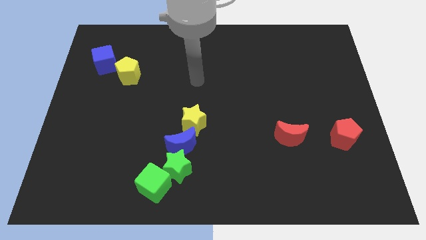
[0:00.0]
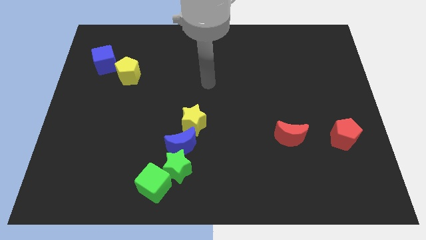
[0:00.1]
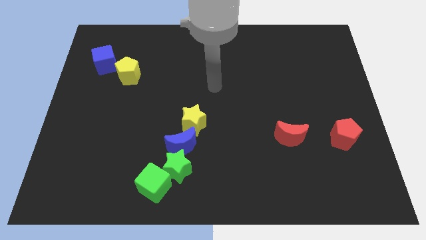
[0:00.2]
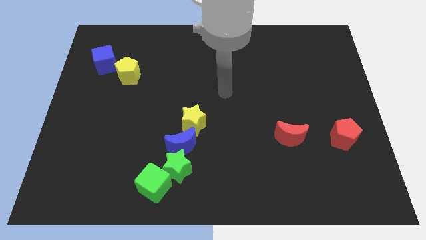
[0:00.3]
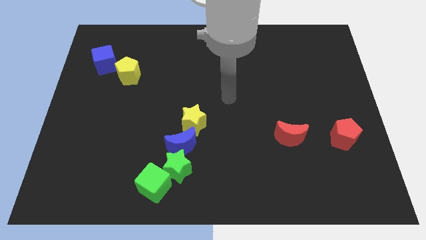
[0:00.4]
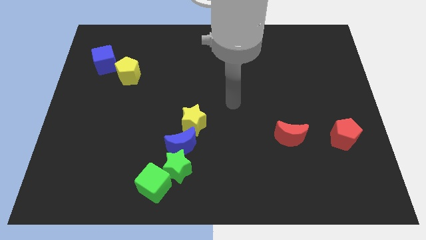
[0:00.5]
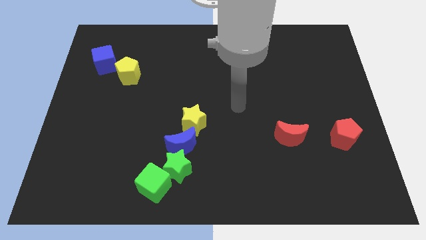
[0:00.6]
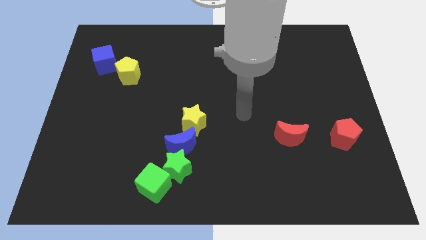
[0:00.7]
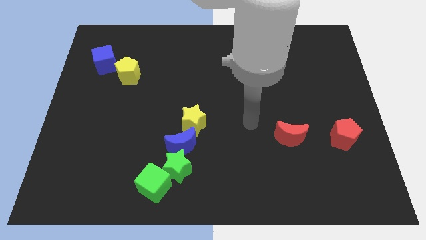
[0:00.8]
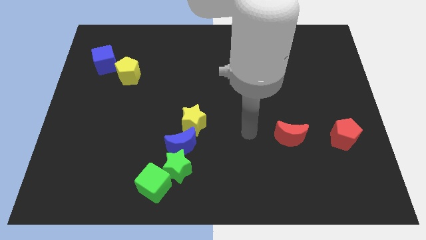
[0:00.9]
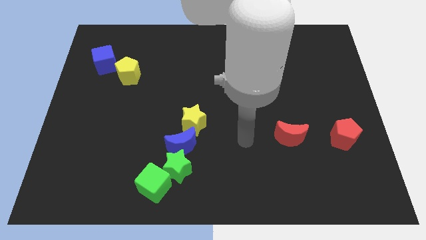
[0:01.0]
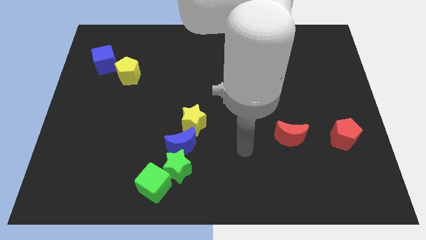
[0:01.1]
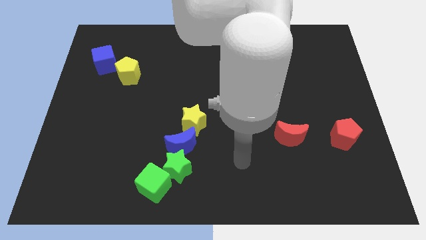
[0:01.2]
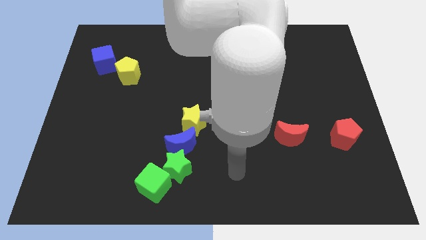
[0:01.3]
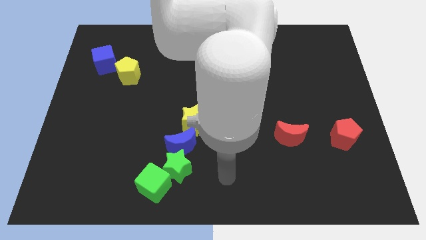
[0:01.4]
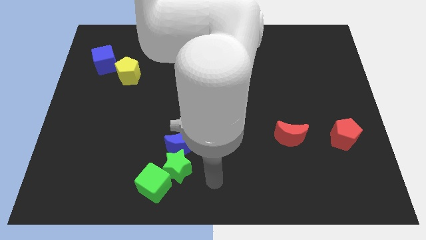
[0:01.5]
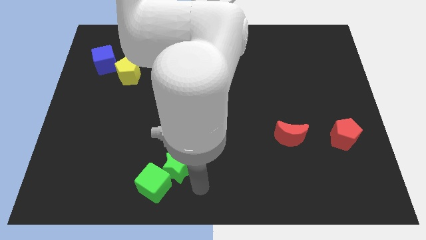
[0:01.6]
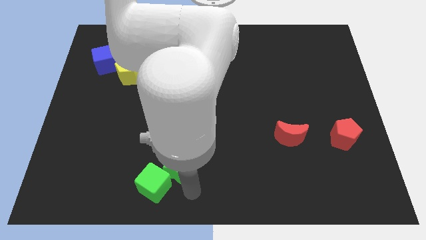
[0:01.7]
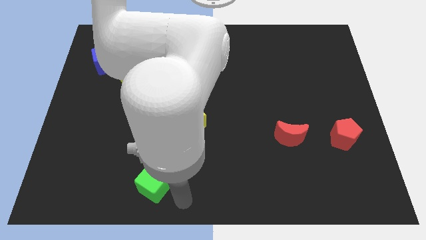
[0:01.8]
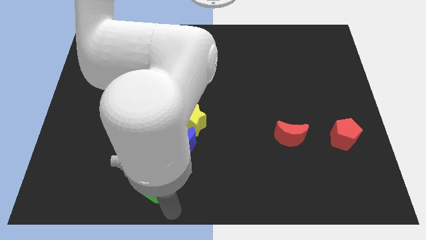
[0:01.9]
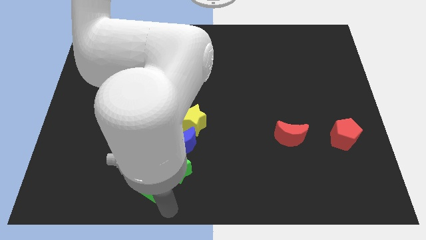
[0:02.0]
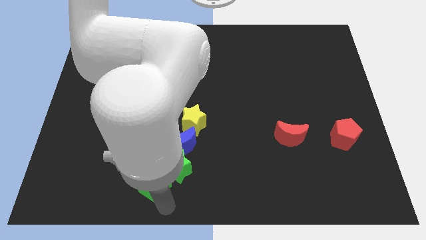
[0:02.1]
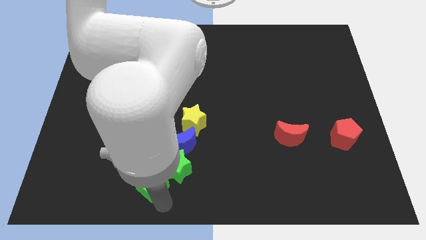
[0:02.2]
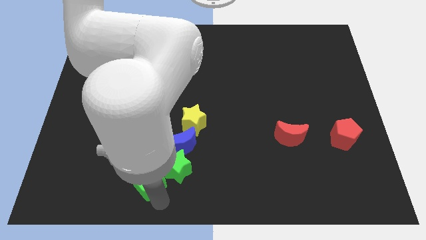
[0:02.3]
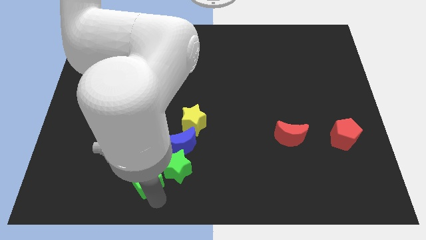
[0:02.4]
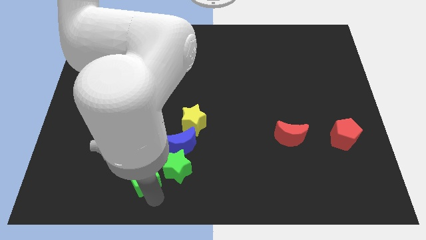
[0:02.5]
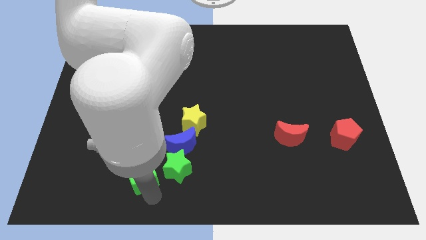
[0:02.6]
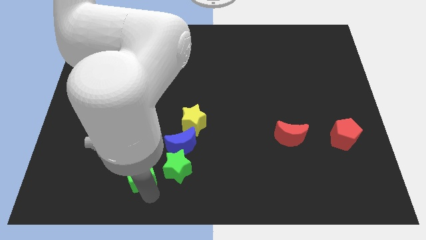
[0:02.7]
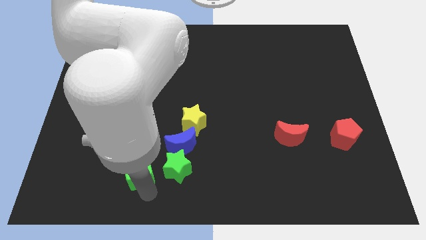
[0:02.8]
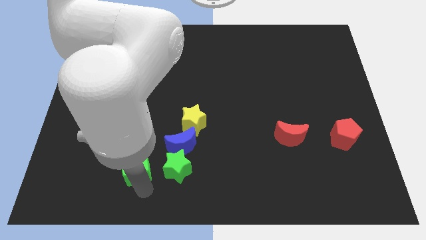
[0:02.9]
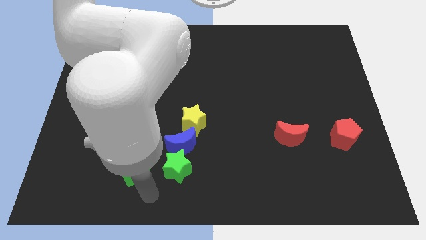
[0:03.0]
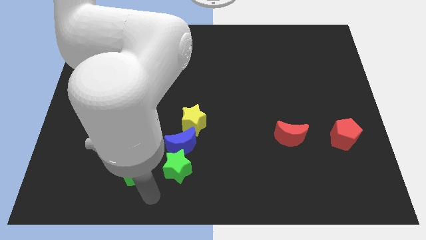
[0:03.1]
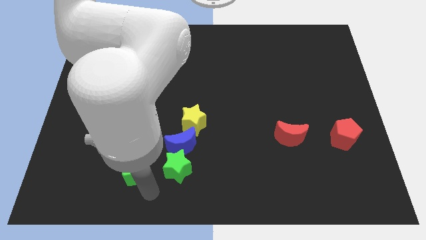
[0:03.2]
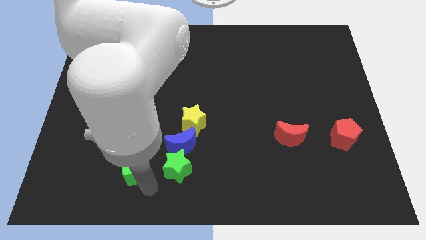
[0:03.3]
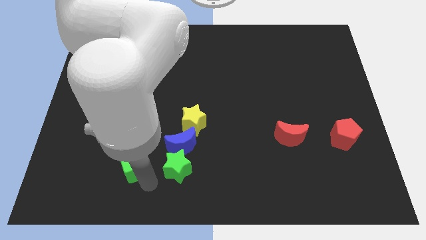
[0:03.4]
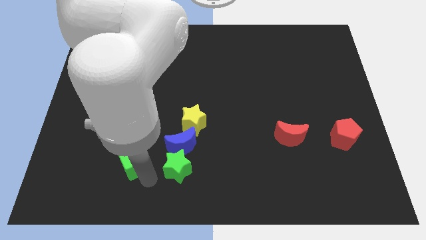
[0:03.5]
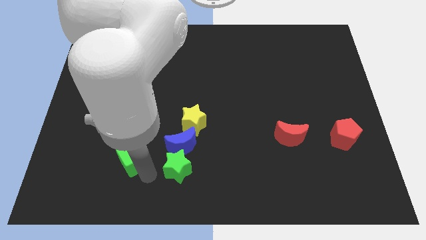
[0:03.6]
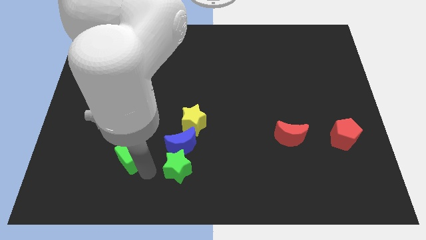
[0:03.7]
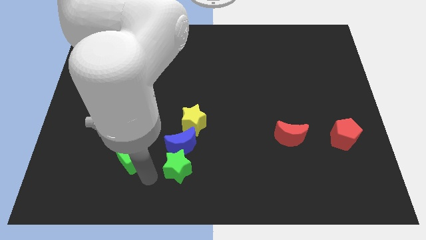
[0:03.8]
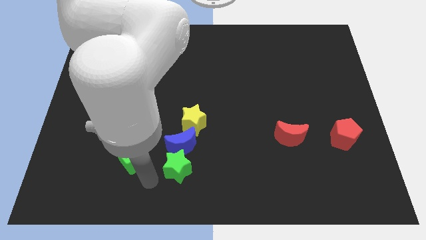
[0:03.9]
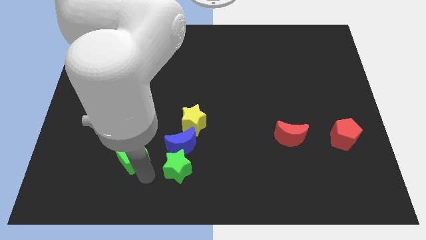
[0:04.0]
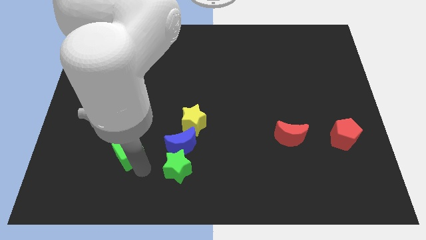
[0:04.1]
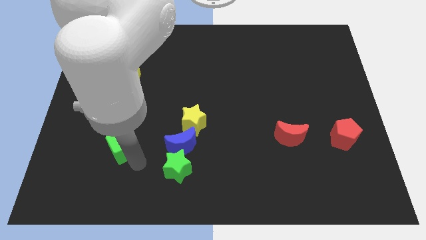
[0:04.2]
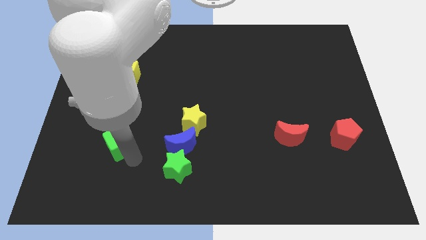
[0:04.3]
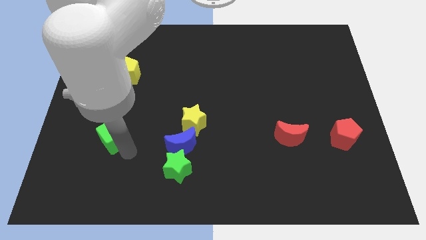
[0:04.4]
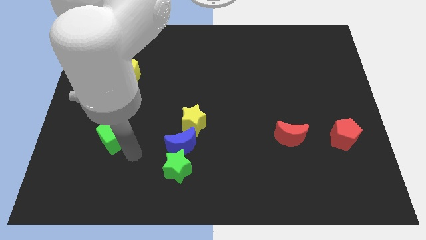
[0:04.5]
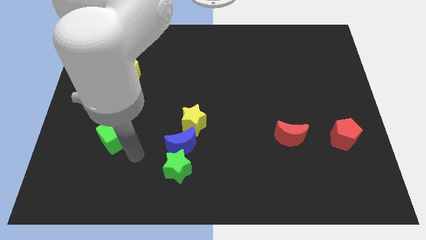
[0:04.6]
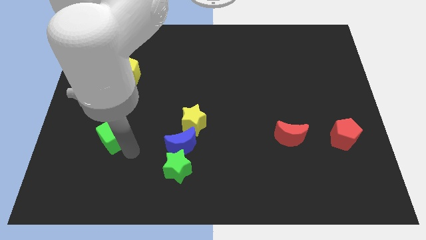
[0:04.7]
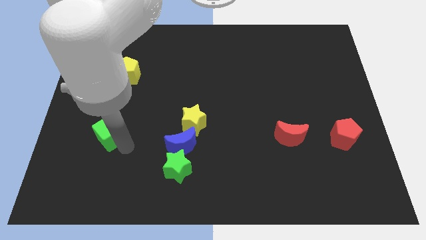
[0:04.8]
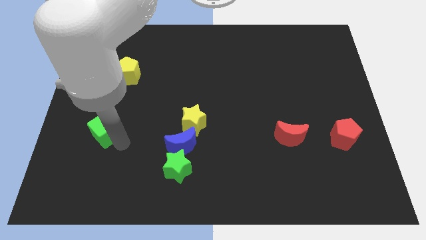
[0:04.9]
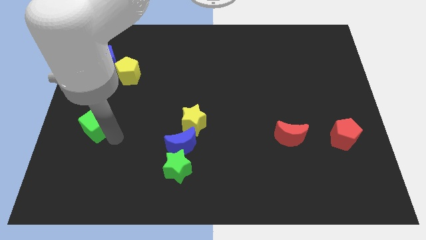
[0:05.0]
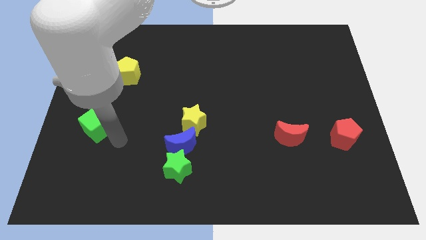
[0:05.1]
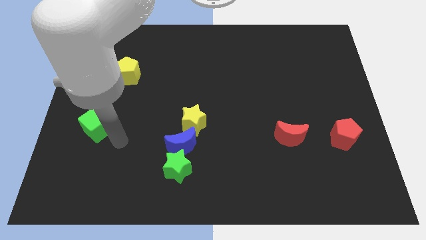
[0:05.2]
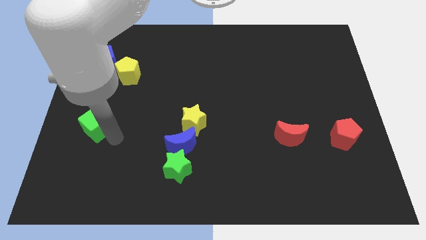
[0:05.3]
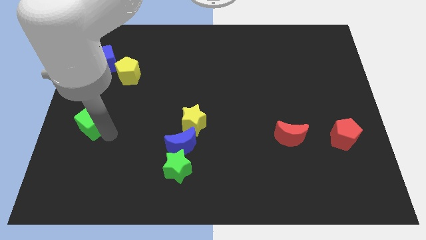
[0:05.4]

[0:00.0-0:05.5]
slide the green cube to the left side of the board

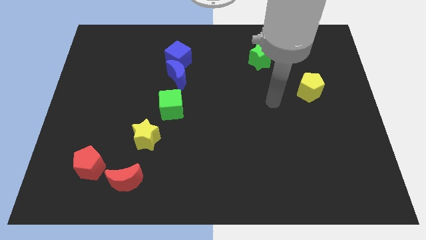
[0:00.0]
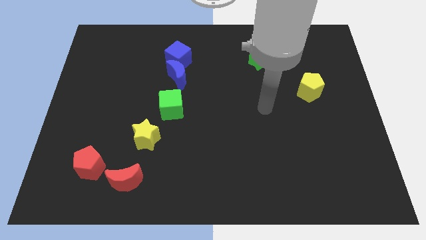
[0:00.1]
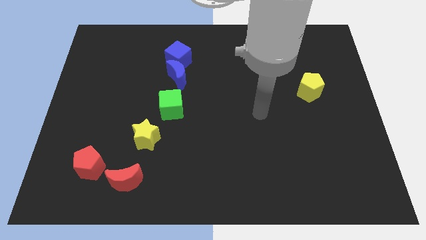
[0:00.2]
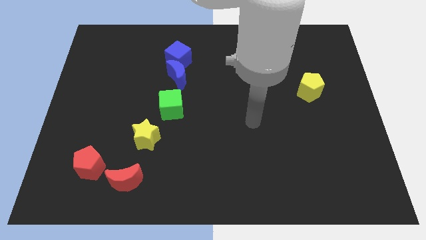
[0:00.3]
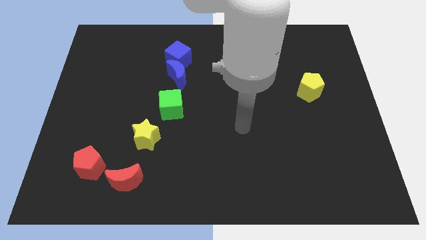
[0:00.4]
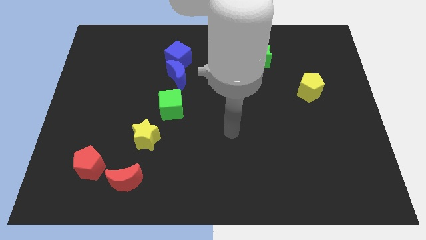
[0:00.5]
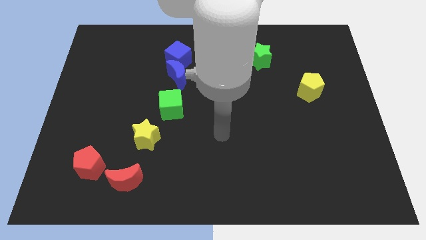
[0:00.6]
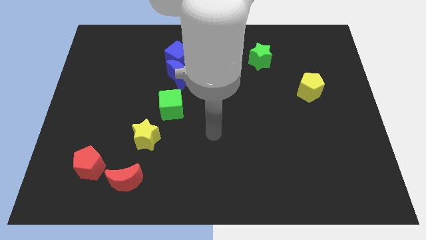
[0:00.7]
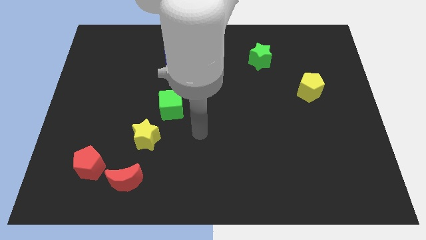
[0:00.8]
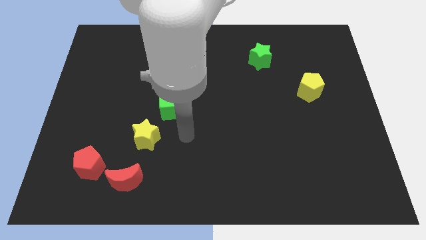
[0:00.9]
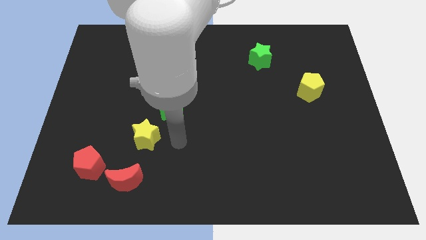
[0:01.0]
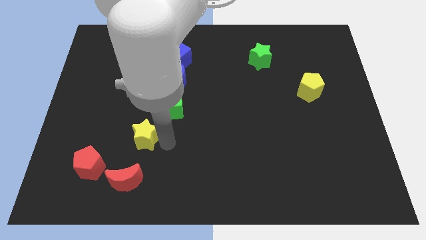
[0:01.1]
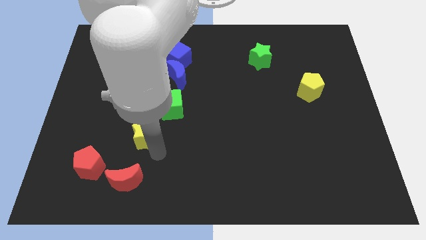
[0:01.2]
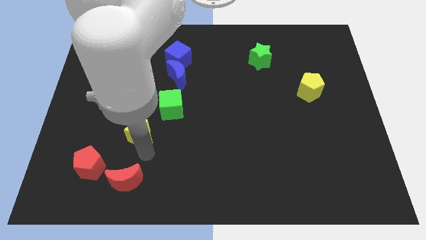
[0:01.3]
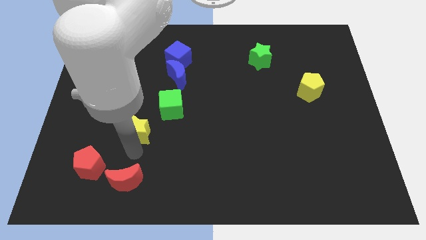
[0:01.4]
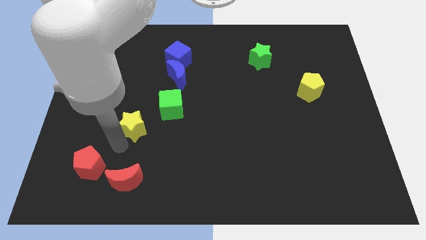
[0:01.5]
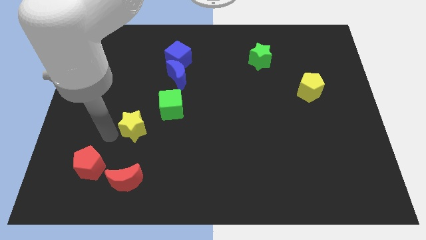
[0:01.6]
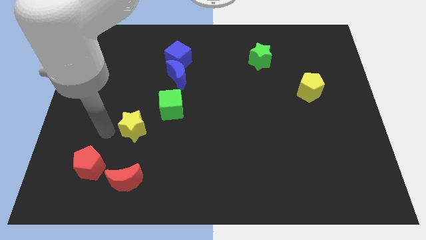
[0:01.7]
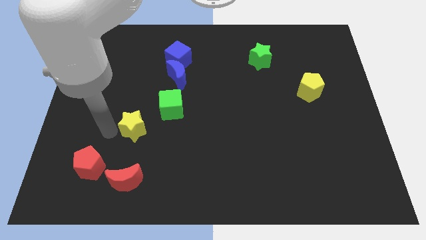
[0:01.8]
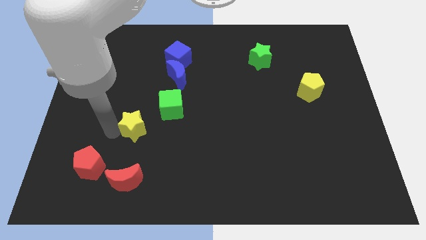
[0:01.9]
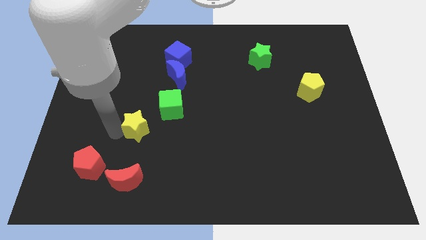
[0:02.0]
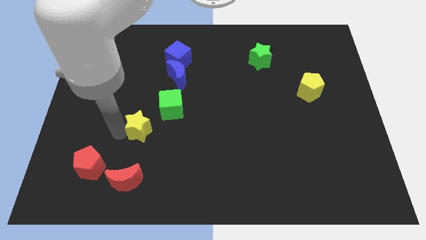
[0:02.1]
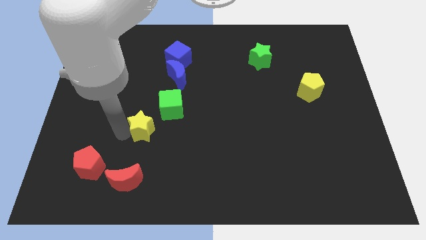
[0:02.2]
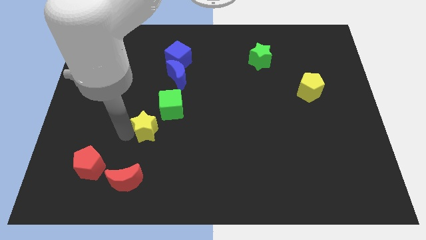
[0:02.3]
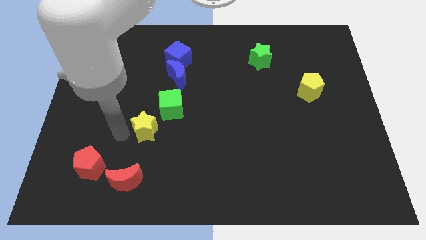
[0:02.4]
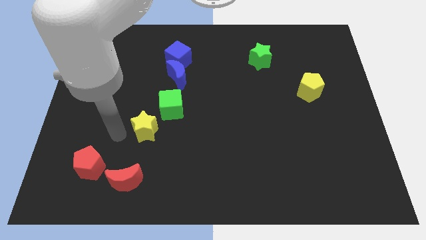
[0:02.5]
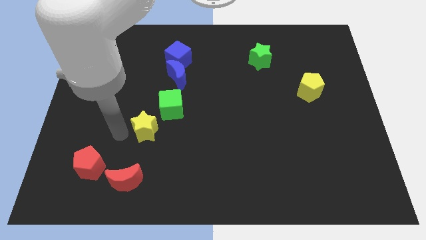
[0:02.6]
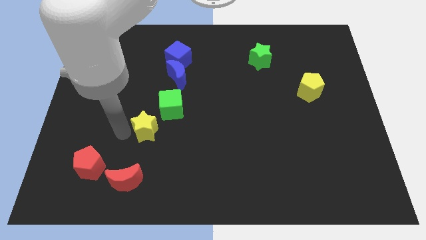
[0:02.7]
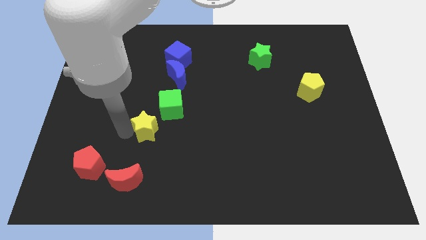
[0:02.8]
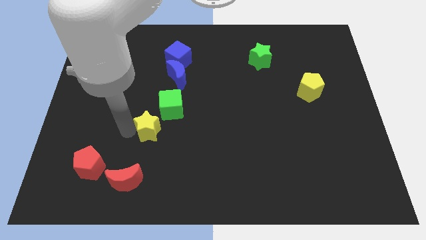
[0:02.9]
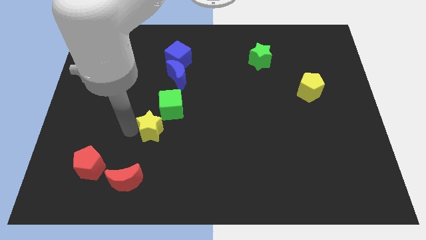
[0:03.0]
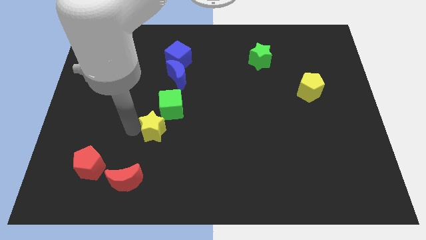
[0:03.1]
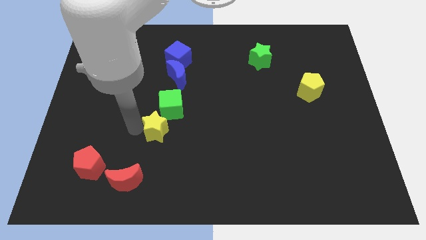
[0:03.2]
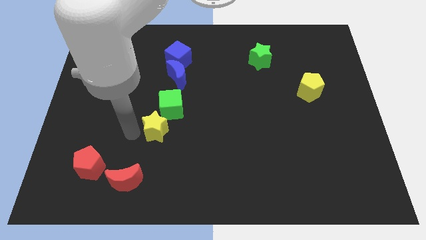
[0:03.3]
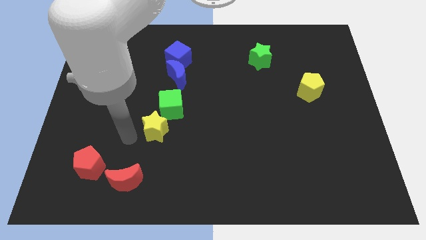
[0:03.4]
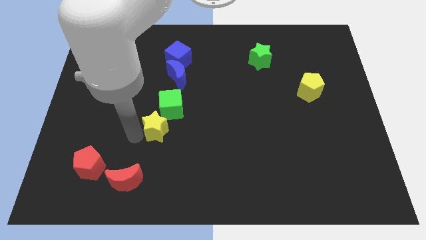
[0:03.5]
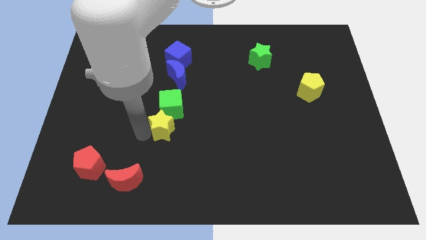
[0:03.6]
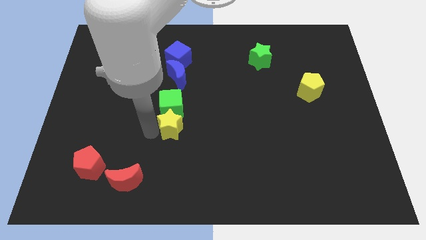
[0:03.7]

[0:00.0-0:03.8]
move the yellow star to the middle of the board
